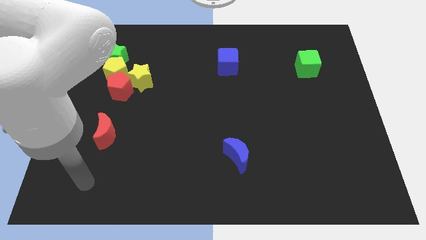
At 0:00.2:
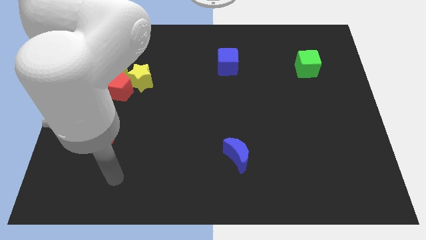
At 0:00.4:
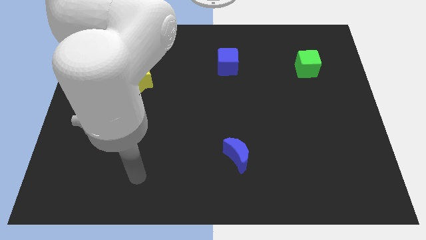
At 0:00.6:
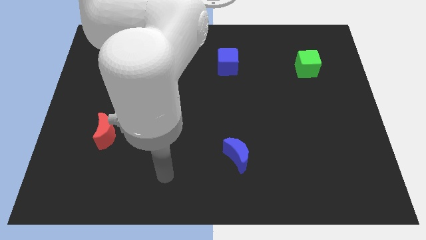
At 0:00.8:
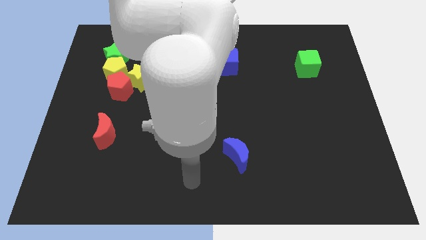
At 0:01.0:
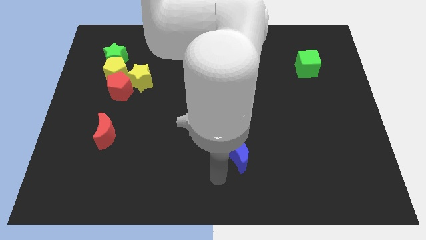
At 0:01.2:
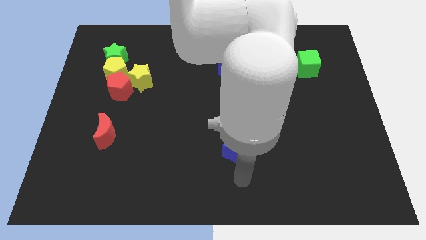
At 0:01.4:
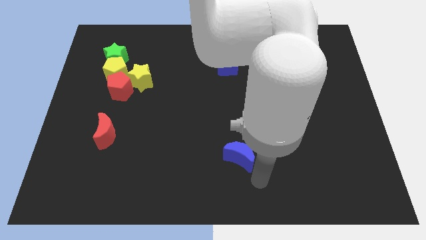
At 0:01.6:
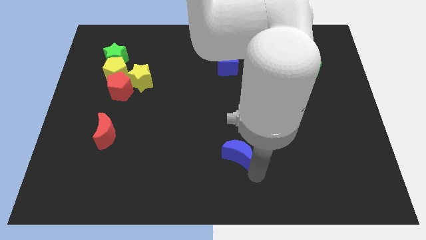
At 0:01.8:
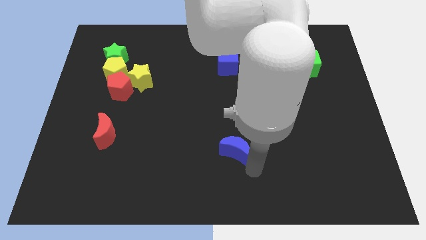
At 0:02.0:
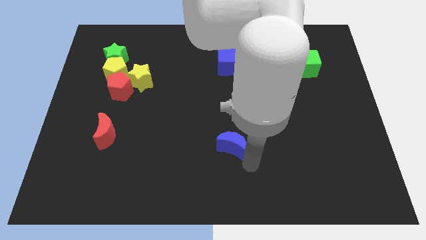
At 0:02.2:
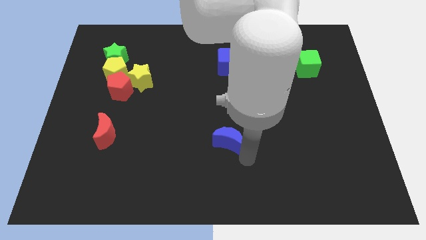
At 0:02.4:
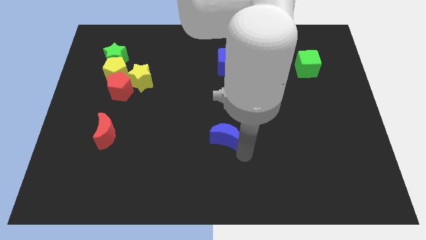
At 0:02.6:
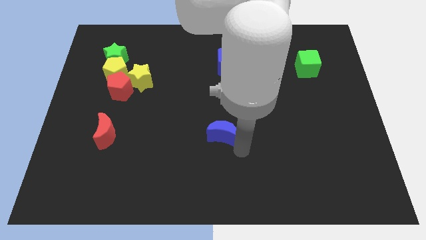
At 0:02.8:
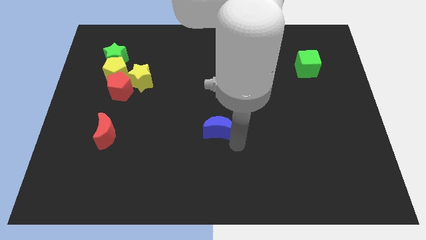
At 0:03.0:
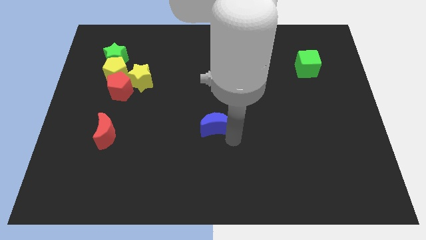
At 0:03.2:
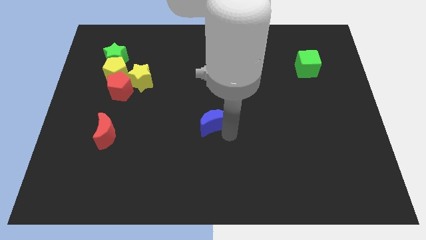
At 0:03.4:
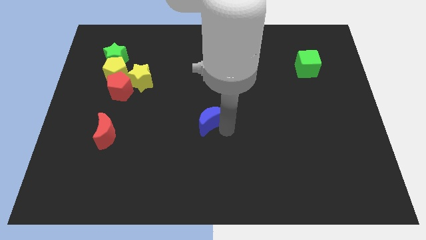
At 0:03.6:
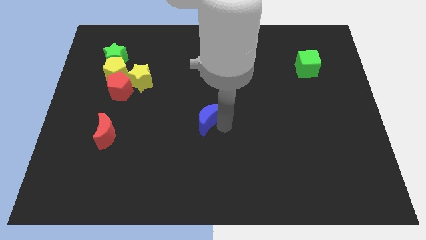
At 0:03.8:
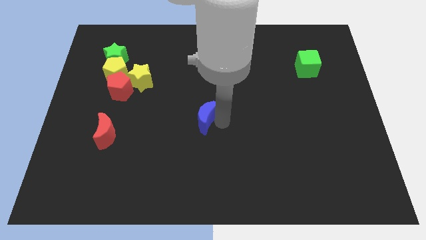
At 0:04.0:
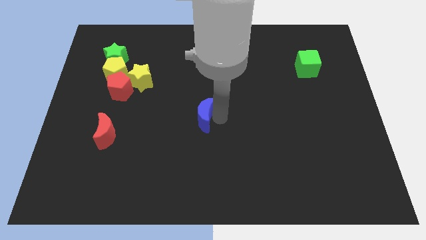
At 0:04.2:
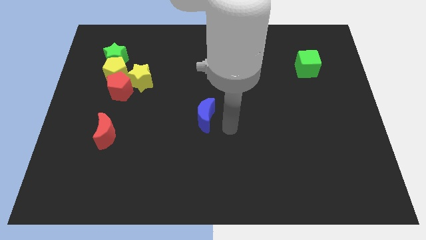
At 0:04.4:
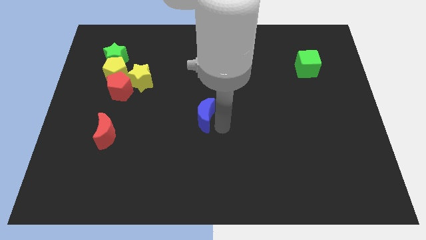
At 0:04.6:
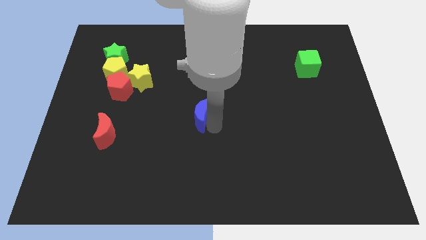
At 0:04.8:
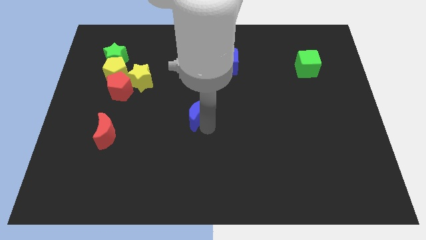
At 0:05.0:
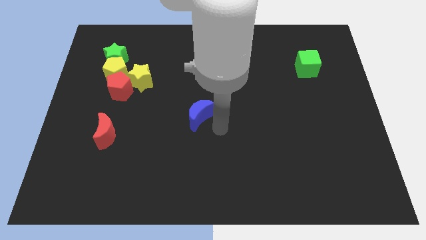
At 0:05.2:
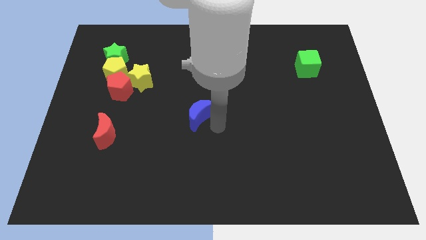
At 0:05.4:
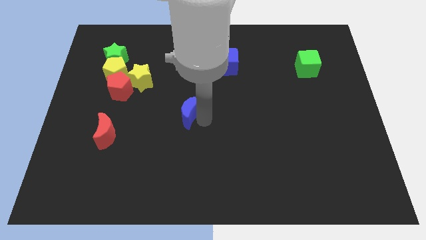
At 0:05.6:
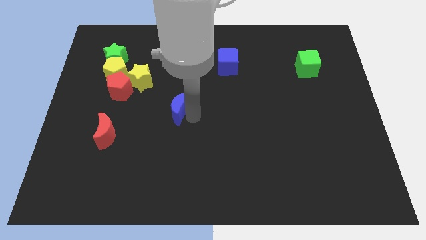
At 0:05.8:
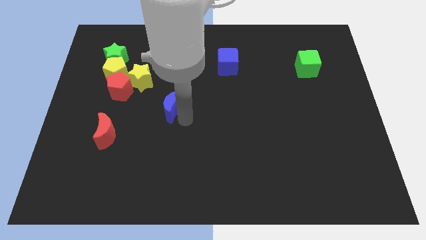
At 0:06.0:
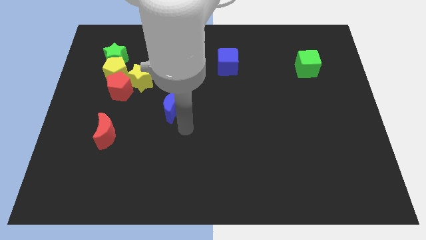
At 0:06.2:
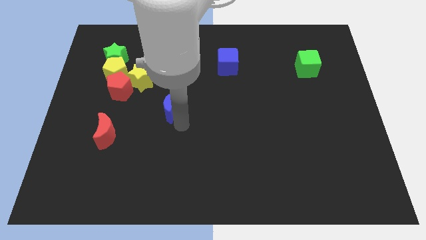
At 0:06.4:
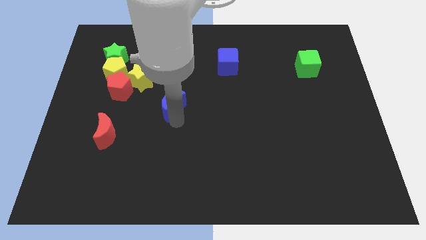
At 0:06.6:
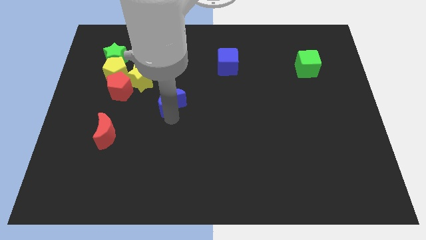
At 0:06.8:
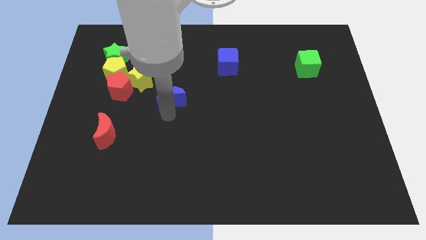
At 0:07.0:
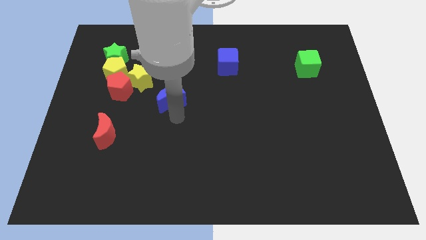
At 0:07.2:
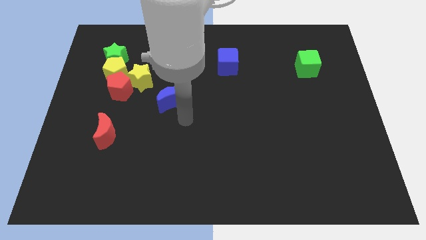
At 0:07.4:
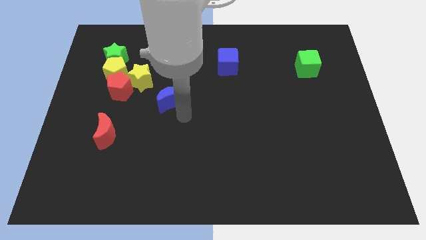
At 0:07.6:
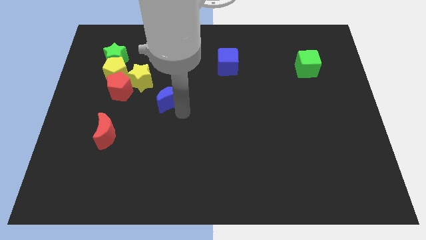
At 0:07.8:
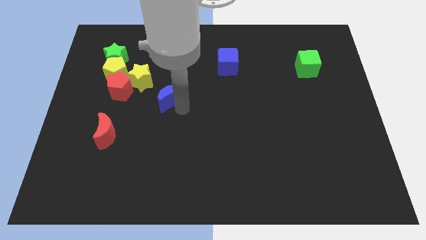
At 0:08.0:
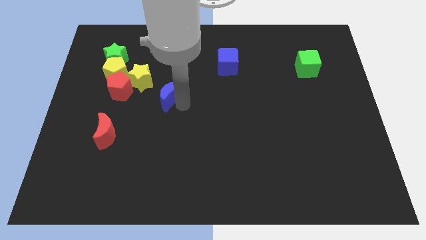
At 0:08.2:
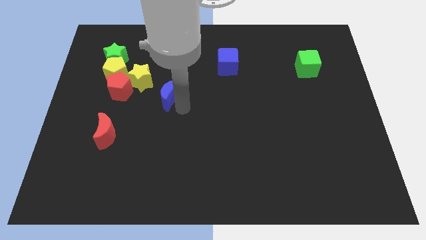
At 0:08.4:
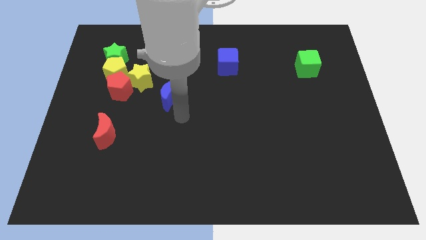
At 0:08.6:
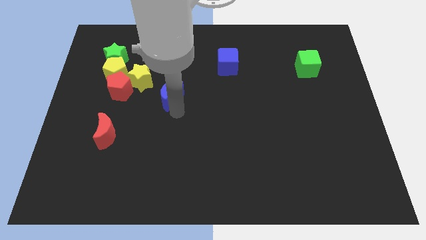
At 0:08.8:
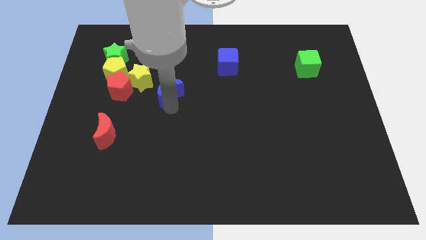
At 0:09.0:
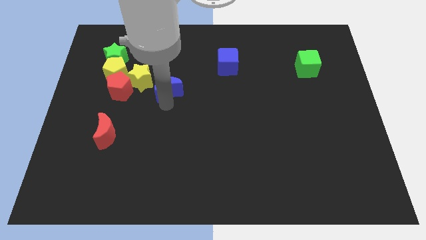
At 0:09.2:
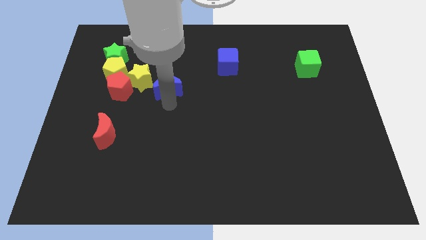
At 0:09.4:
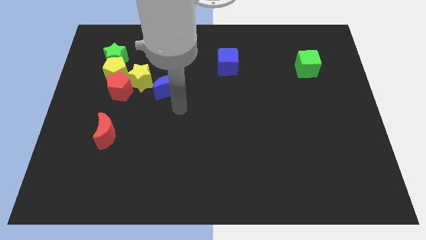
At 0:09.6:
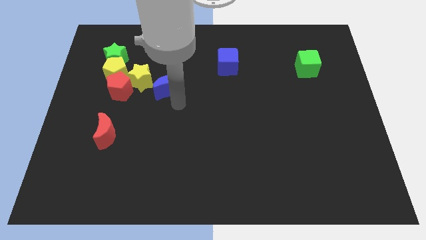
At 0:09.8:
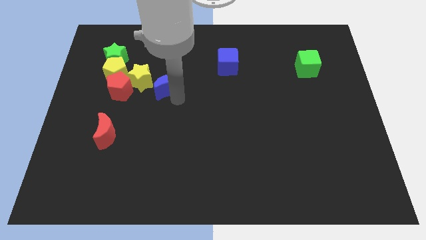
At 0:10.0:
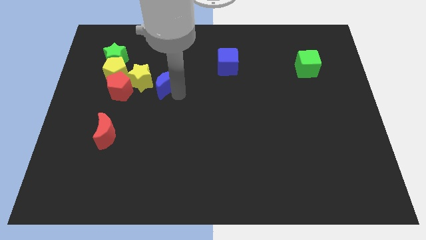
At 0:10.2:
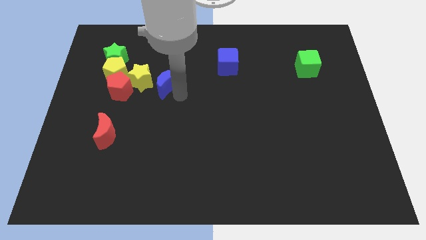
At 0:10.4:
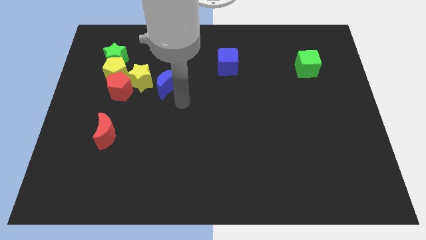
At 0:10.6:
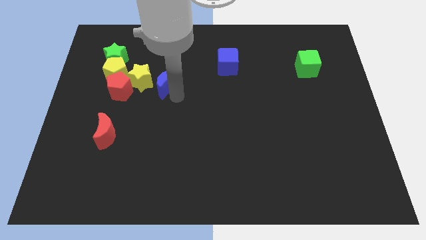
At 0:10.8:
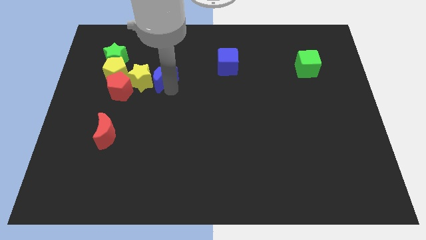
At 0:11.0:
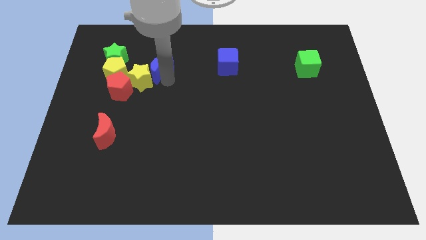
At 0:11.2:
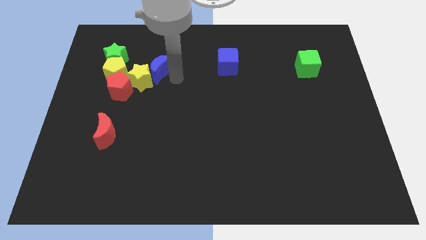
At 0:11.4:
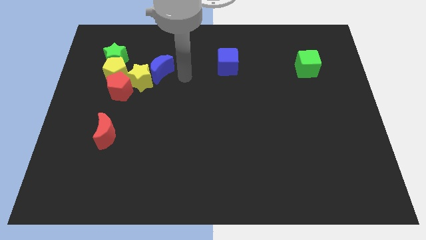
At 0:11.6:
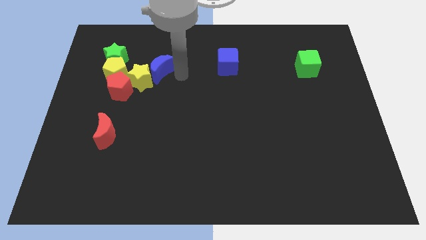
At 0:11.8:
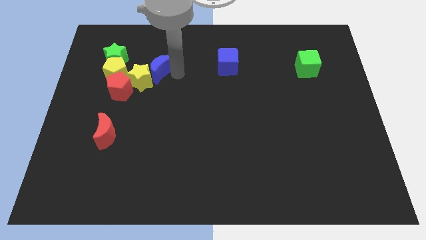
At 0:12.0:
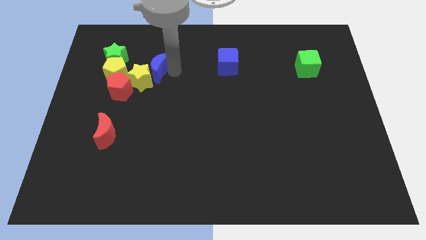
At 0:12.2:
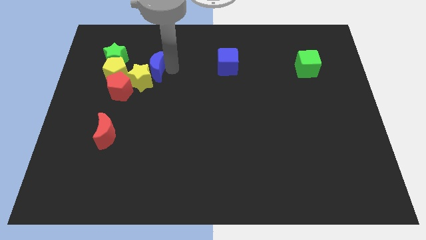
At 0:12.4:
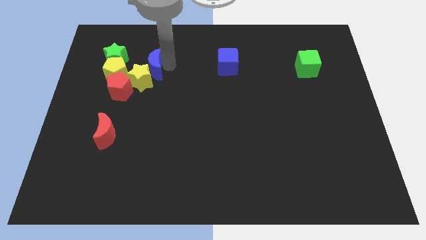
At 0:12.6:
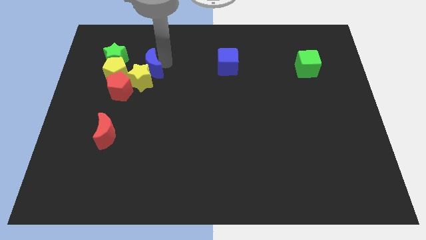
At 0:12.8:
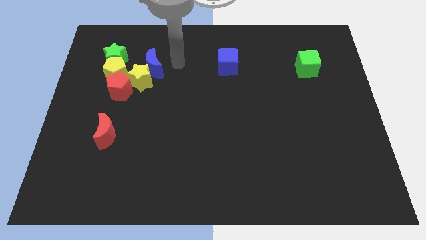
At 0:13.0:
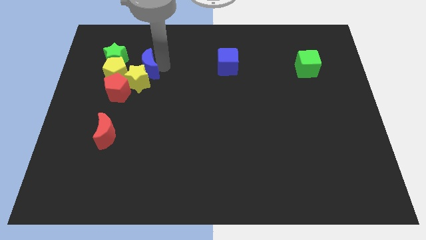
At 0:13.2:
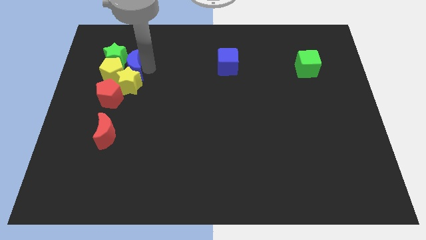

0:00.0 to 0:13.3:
push the blue moon towards the yellow pentagon

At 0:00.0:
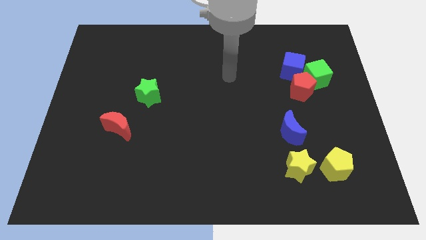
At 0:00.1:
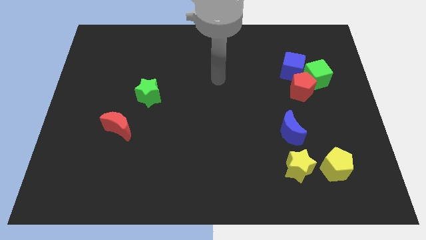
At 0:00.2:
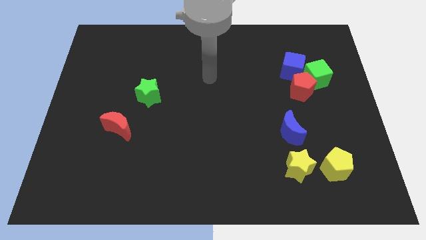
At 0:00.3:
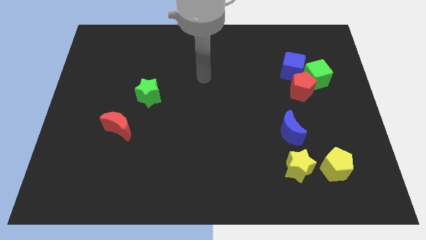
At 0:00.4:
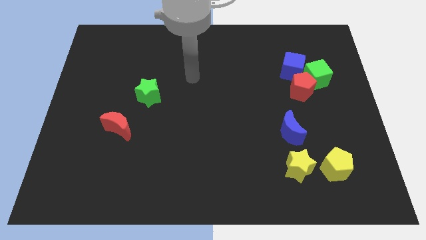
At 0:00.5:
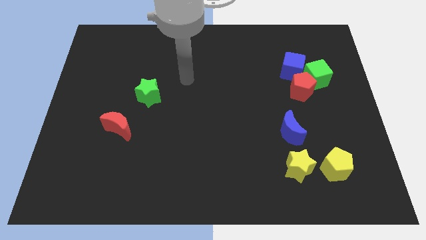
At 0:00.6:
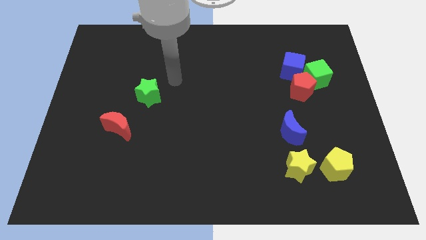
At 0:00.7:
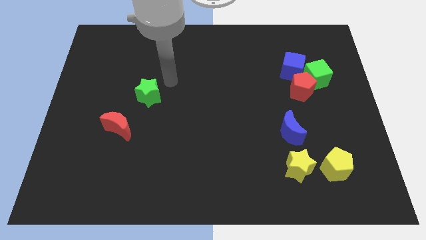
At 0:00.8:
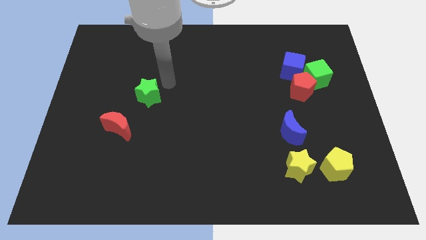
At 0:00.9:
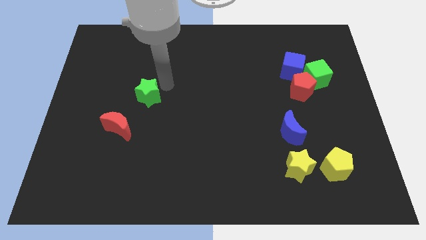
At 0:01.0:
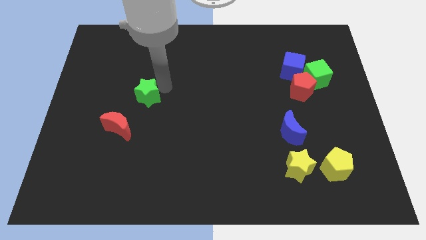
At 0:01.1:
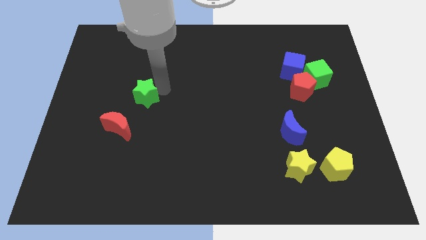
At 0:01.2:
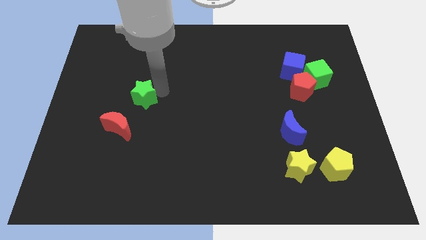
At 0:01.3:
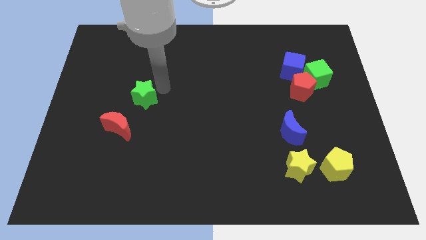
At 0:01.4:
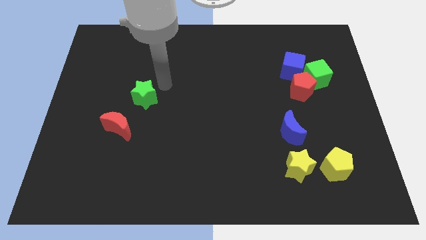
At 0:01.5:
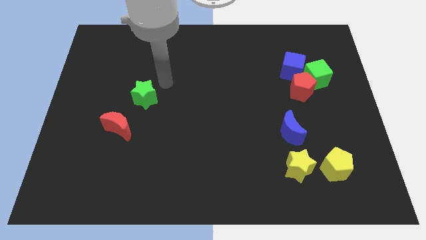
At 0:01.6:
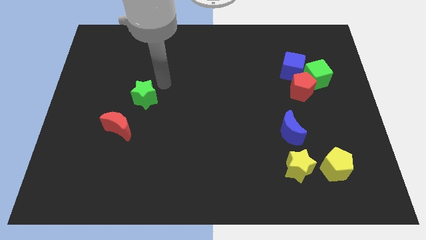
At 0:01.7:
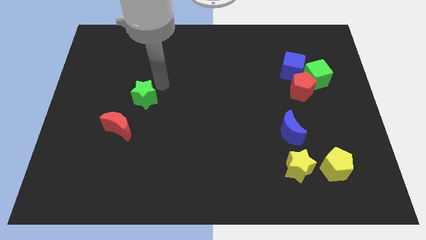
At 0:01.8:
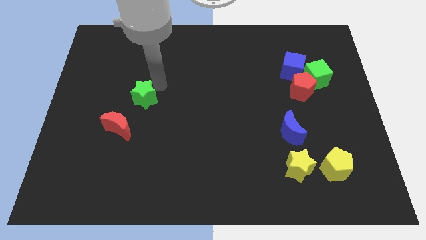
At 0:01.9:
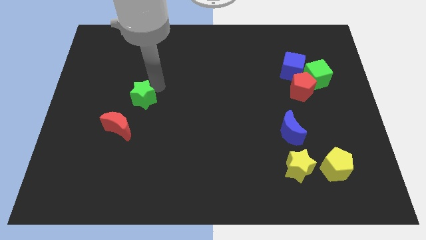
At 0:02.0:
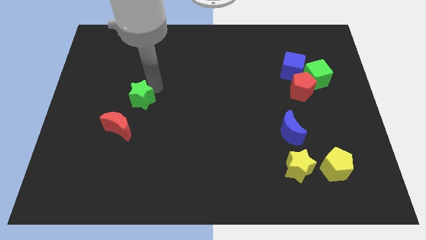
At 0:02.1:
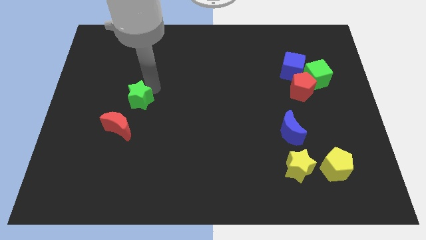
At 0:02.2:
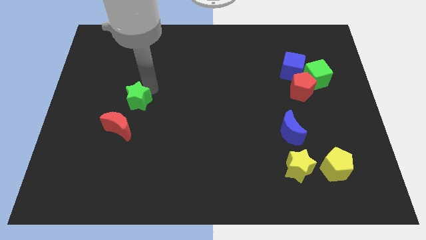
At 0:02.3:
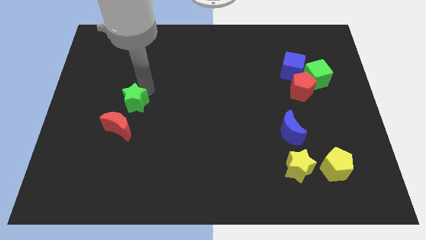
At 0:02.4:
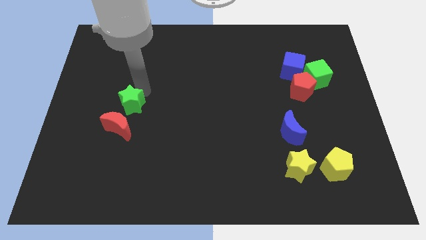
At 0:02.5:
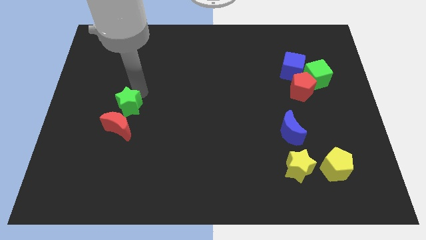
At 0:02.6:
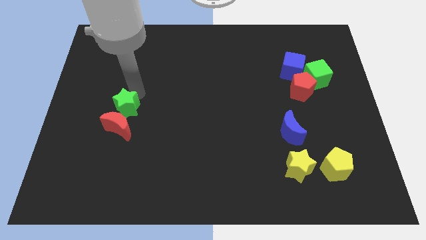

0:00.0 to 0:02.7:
push the green star to the red moon
